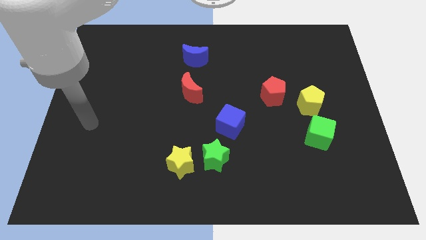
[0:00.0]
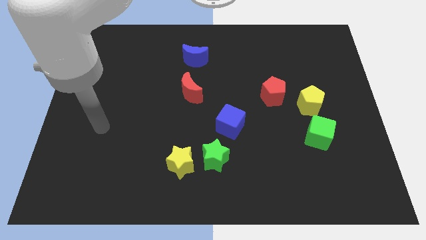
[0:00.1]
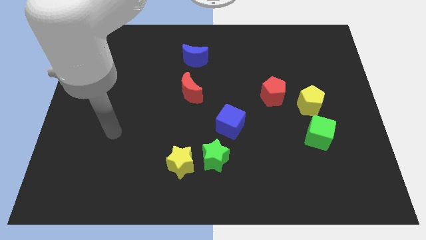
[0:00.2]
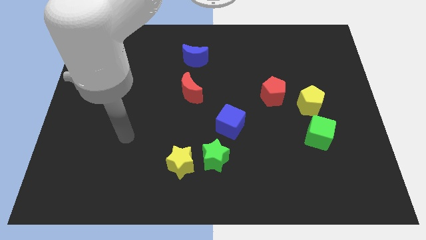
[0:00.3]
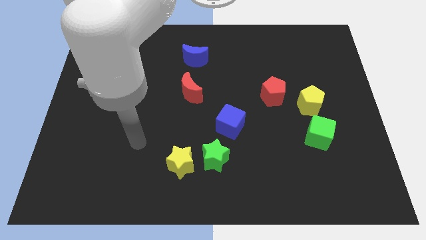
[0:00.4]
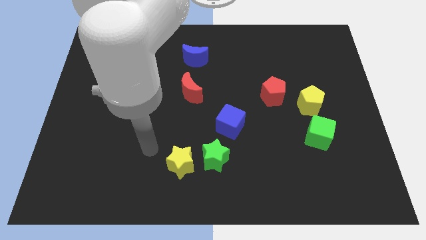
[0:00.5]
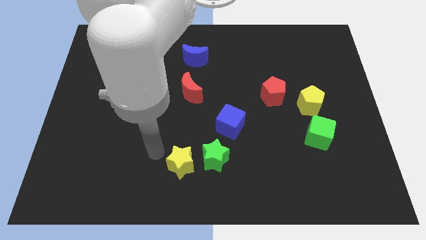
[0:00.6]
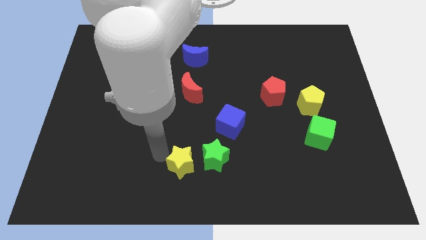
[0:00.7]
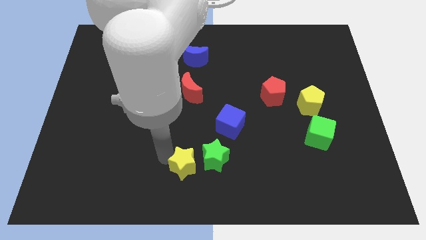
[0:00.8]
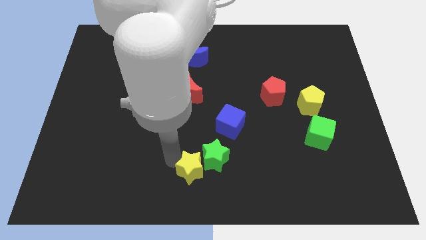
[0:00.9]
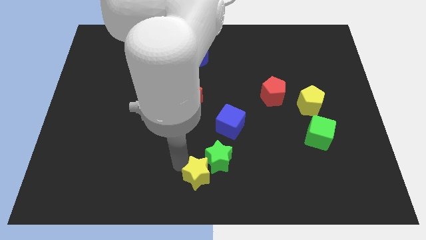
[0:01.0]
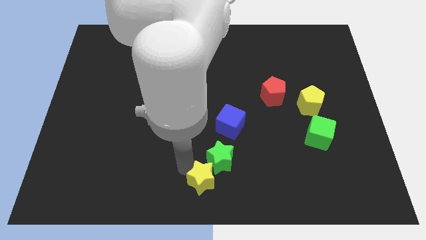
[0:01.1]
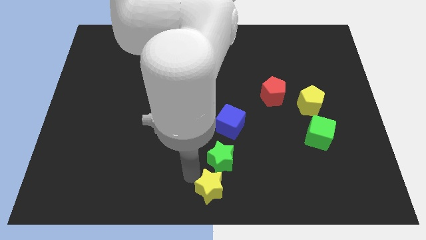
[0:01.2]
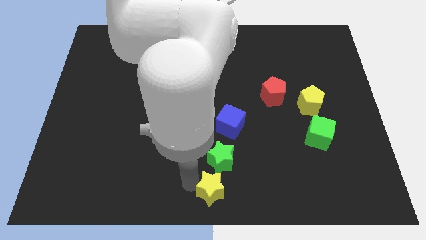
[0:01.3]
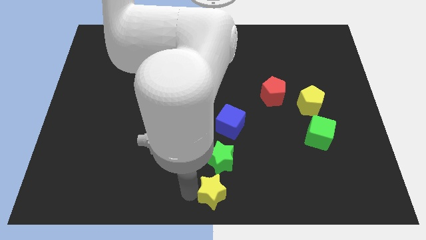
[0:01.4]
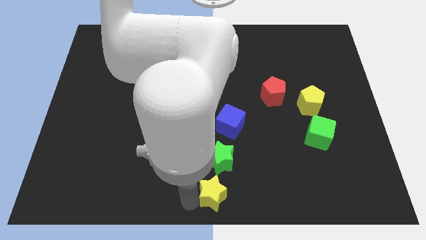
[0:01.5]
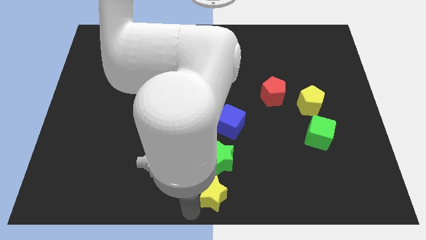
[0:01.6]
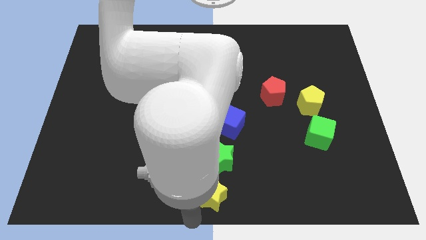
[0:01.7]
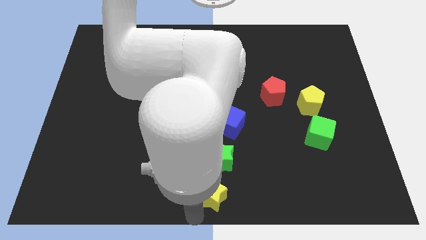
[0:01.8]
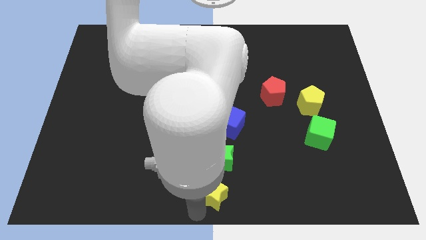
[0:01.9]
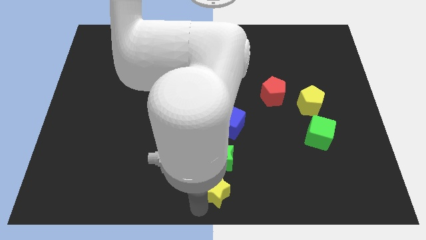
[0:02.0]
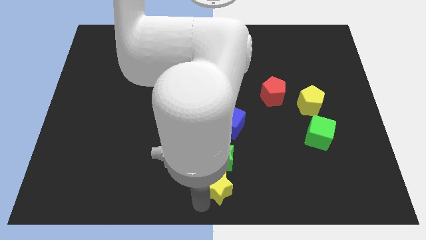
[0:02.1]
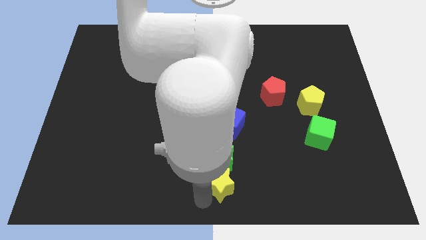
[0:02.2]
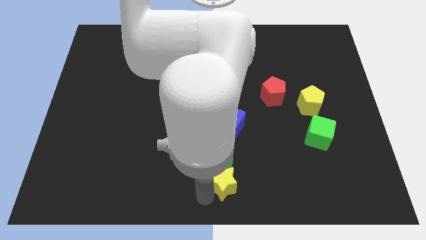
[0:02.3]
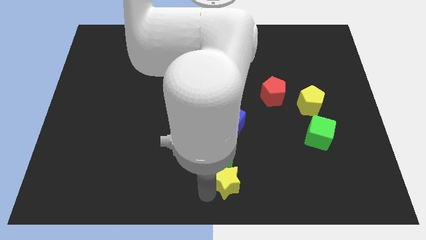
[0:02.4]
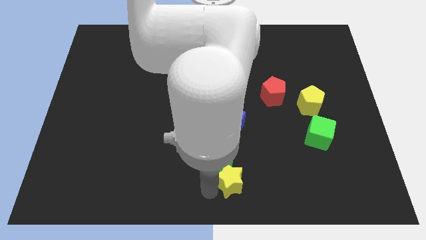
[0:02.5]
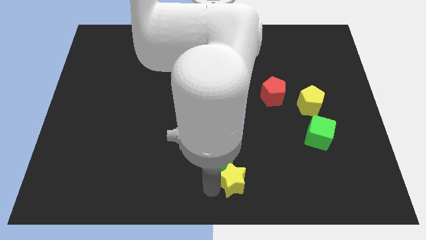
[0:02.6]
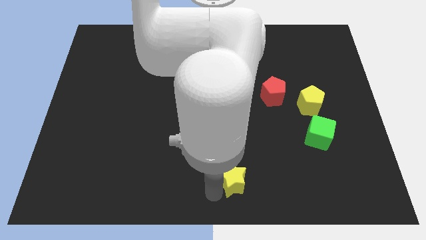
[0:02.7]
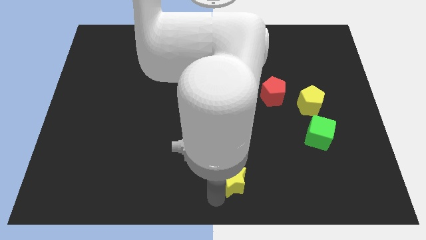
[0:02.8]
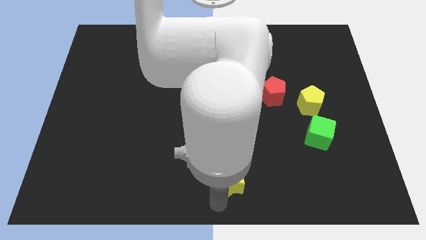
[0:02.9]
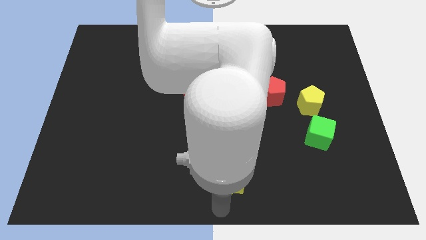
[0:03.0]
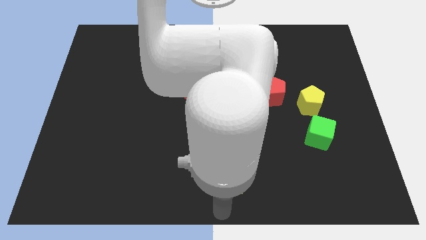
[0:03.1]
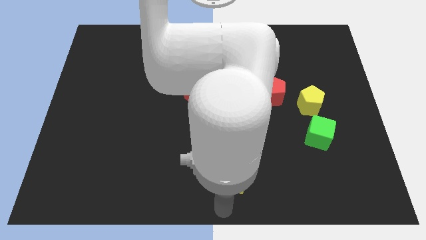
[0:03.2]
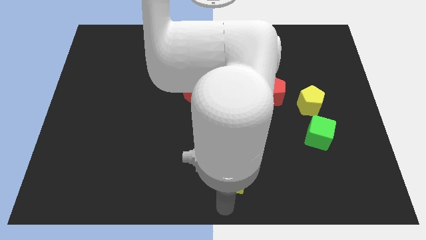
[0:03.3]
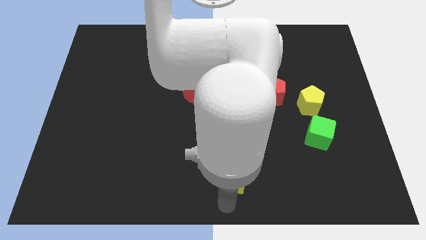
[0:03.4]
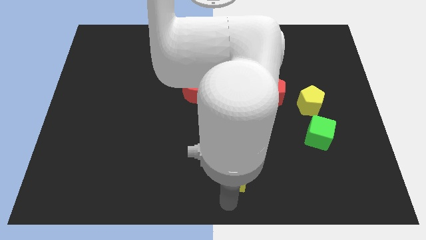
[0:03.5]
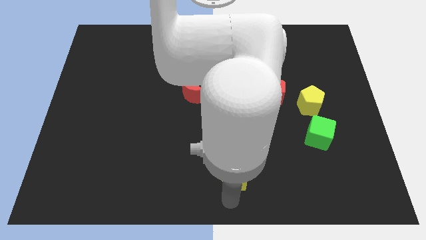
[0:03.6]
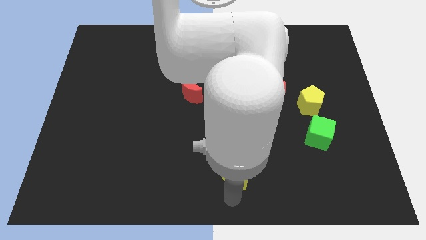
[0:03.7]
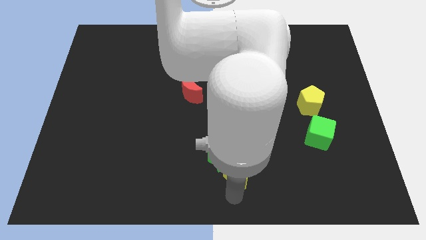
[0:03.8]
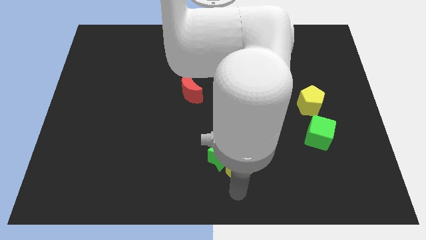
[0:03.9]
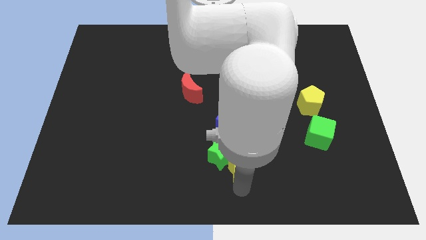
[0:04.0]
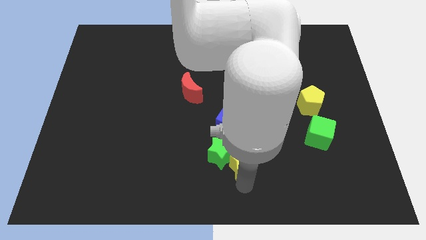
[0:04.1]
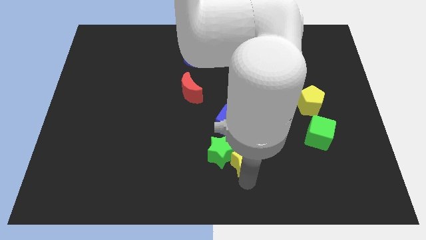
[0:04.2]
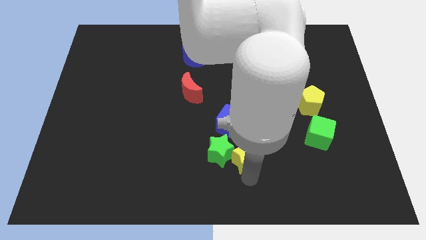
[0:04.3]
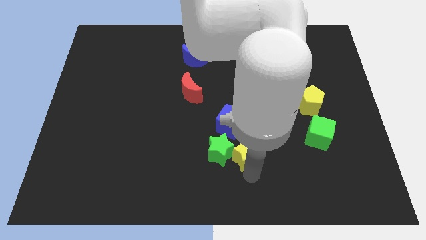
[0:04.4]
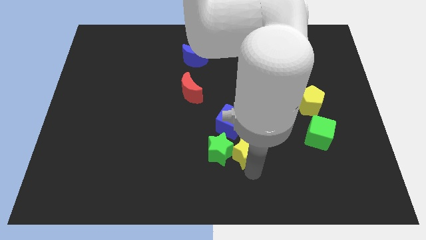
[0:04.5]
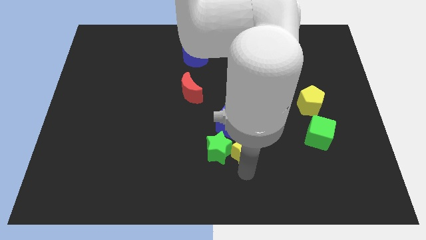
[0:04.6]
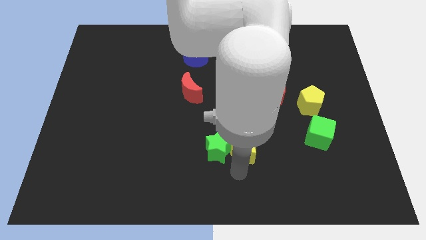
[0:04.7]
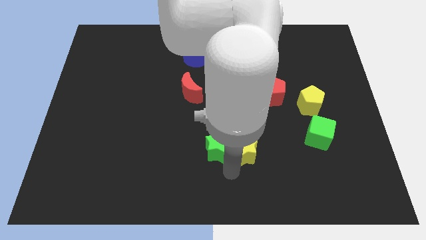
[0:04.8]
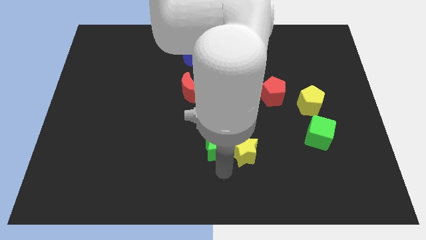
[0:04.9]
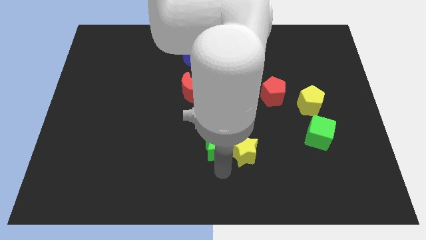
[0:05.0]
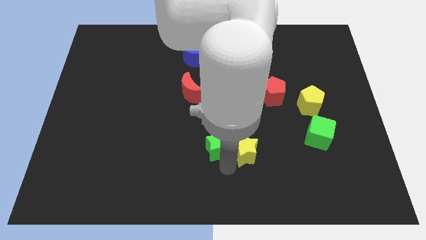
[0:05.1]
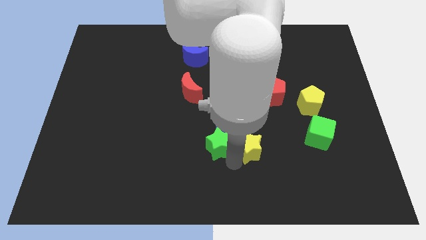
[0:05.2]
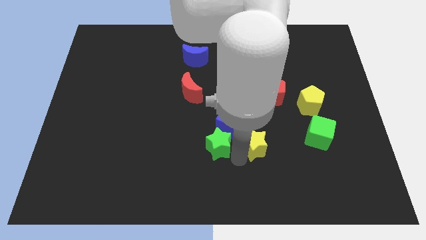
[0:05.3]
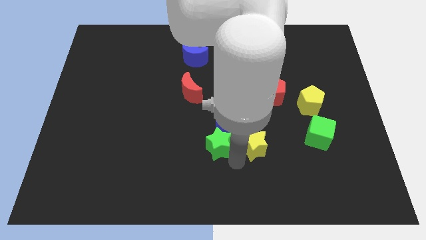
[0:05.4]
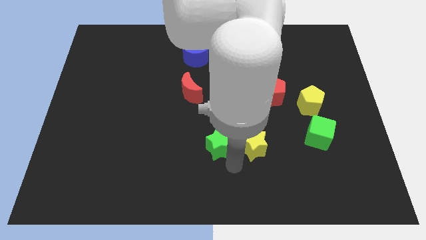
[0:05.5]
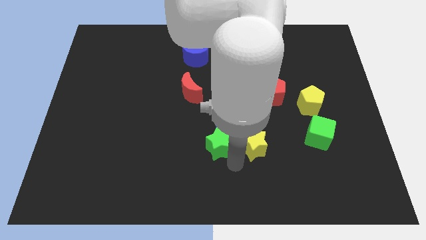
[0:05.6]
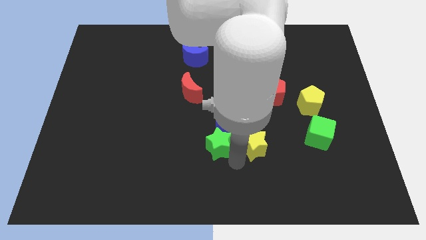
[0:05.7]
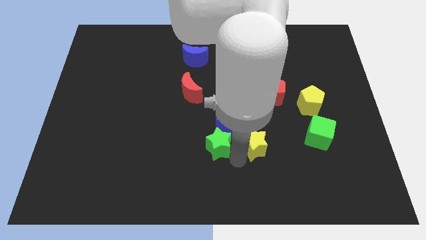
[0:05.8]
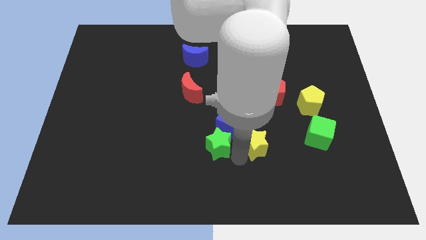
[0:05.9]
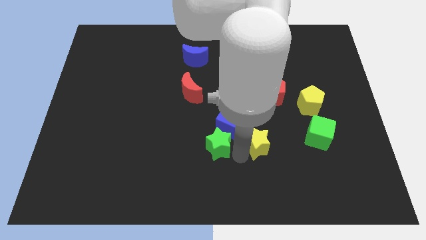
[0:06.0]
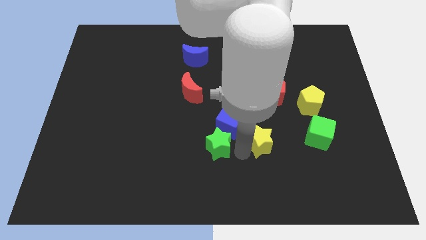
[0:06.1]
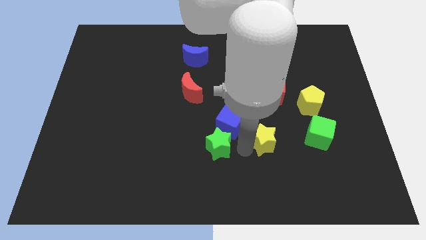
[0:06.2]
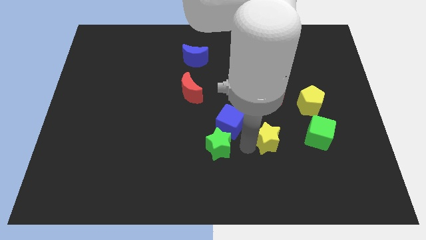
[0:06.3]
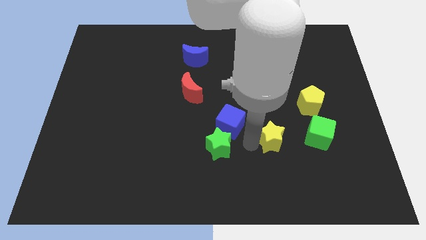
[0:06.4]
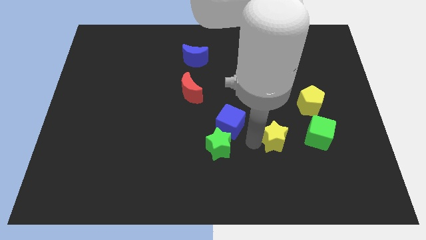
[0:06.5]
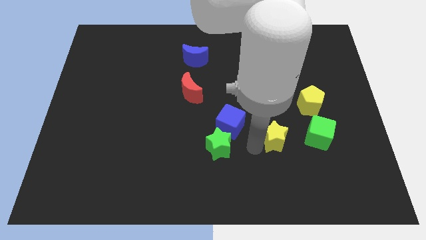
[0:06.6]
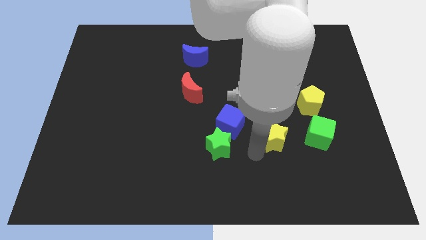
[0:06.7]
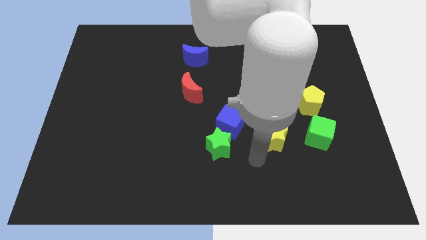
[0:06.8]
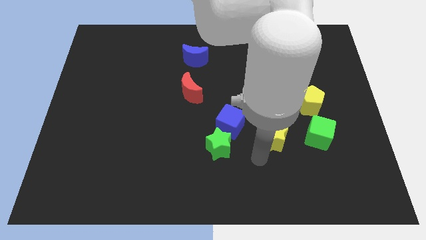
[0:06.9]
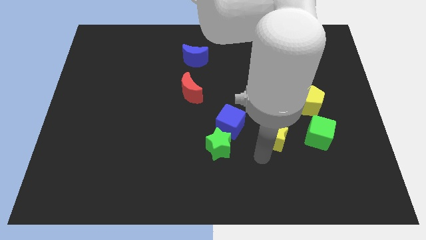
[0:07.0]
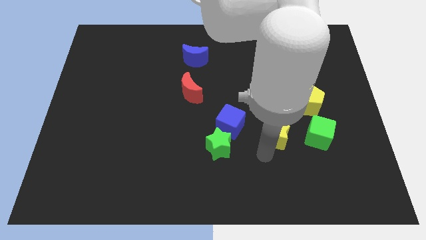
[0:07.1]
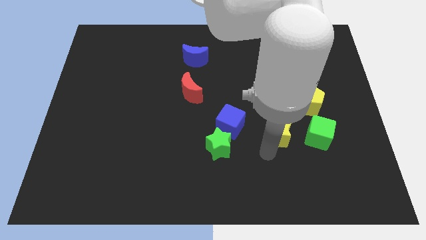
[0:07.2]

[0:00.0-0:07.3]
push the yellow star to the bottom left side of the yellow pentagon

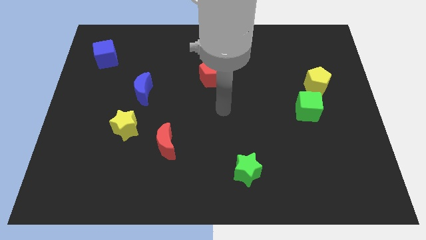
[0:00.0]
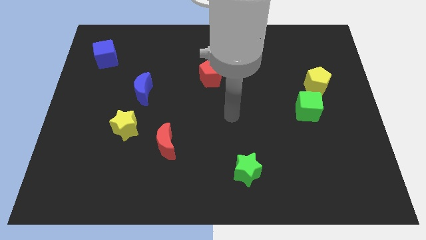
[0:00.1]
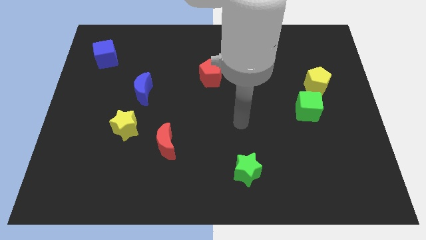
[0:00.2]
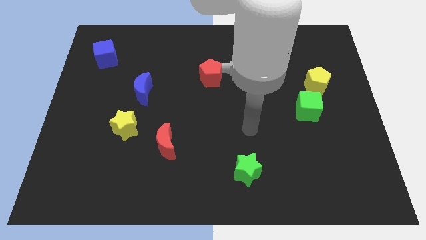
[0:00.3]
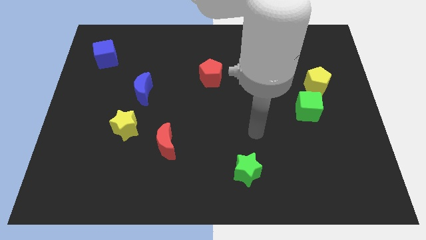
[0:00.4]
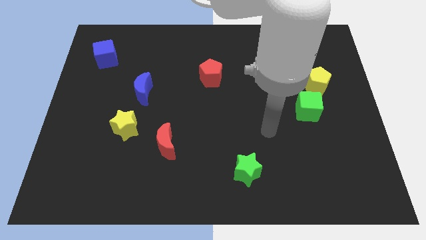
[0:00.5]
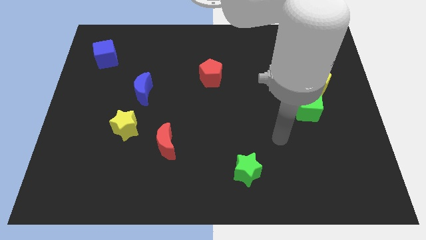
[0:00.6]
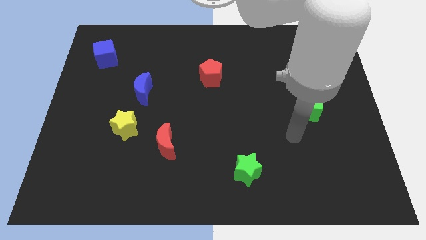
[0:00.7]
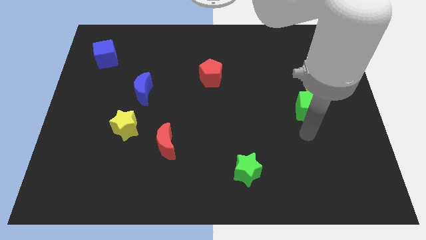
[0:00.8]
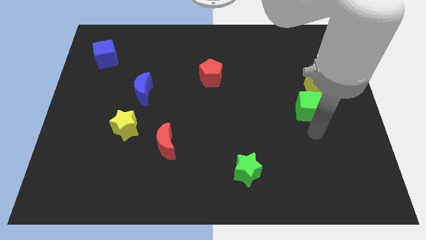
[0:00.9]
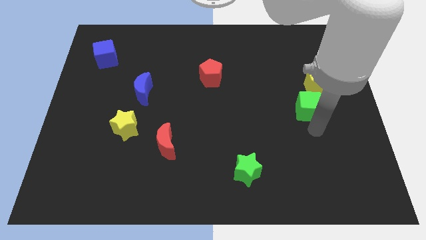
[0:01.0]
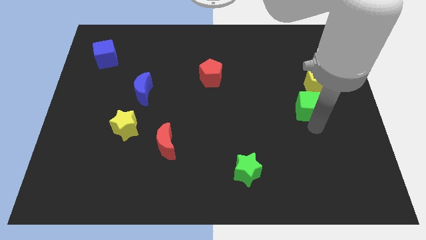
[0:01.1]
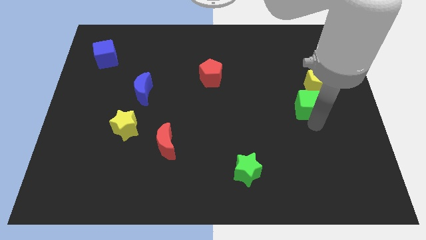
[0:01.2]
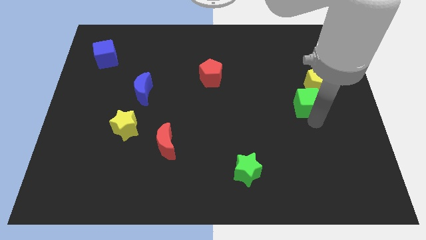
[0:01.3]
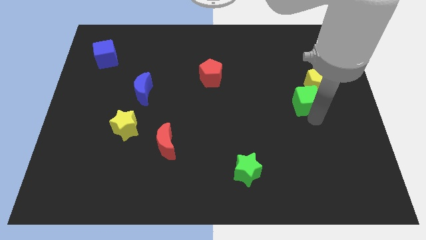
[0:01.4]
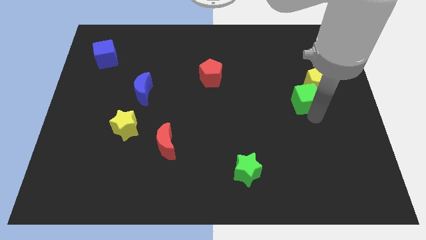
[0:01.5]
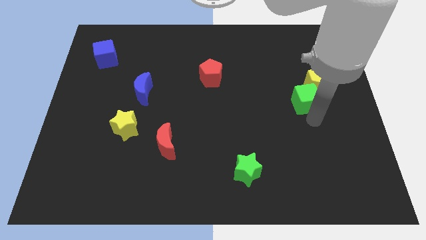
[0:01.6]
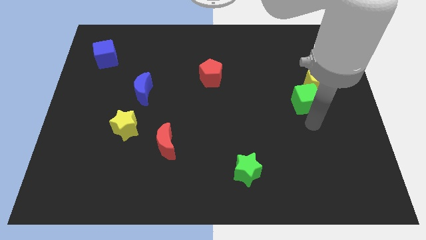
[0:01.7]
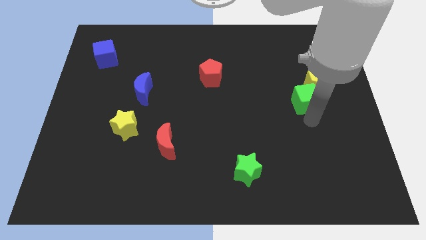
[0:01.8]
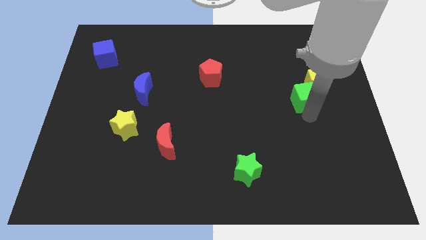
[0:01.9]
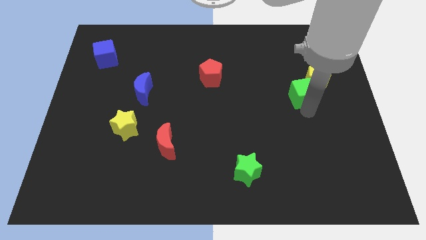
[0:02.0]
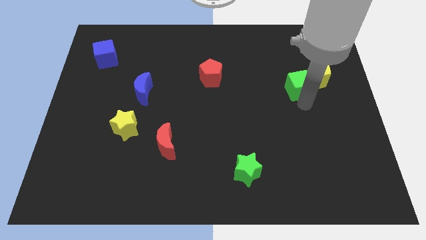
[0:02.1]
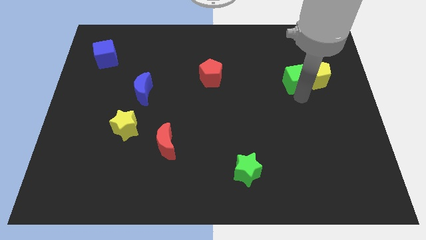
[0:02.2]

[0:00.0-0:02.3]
move the green cube diagonally up and to the left of the yellow pentagon
